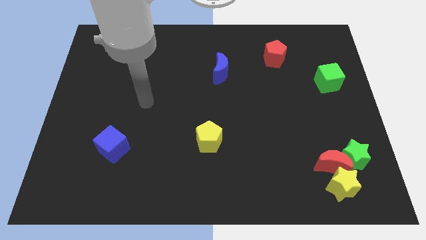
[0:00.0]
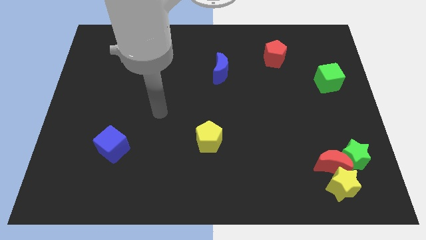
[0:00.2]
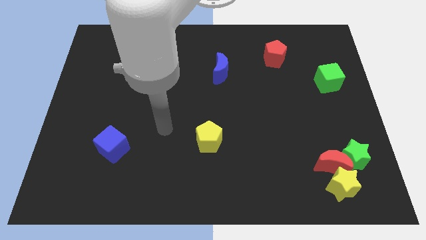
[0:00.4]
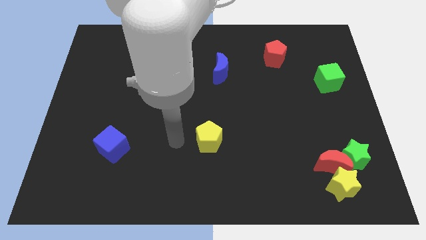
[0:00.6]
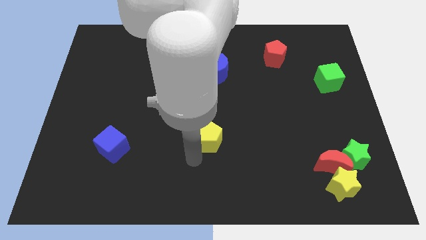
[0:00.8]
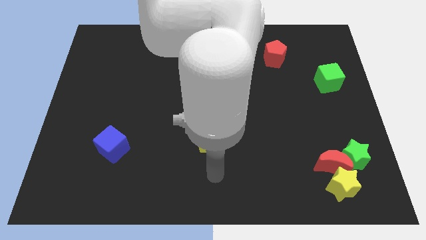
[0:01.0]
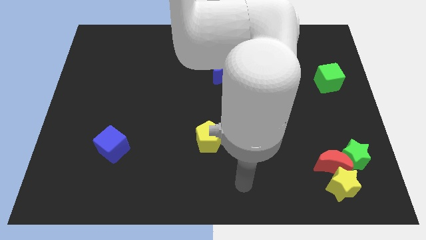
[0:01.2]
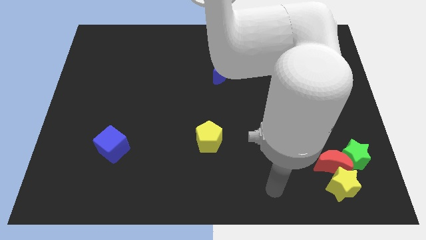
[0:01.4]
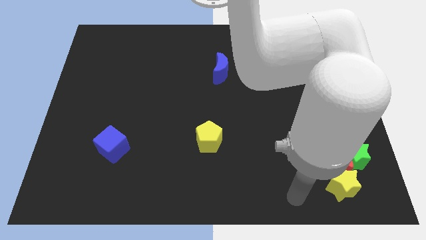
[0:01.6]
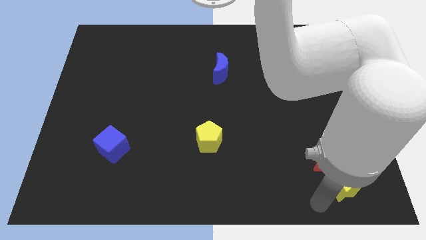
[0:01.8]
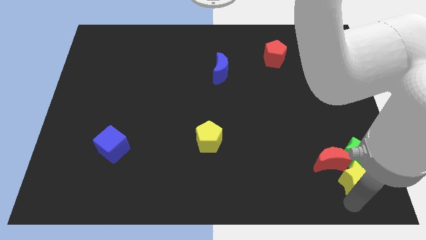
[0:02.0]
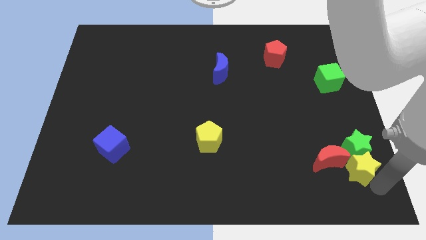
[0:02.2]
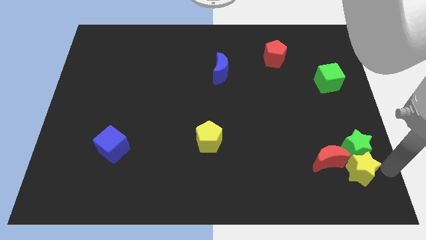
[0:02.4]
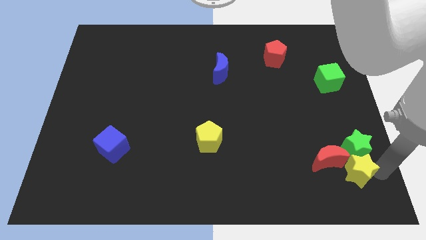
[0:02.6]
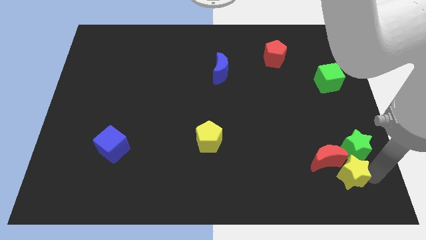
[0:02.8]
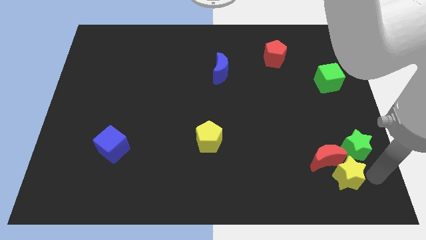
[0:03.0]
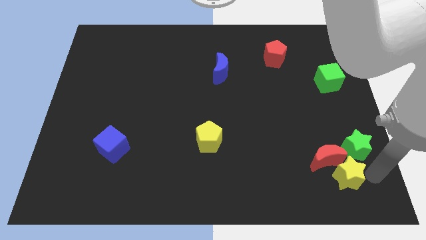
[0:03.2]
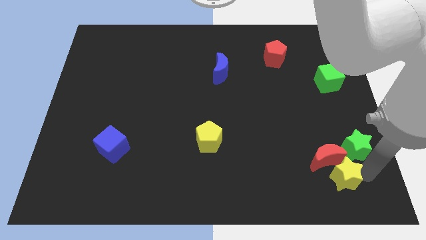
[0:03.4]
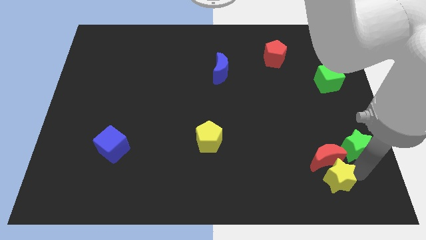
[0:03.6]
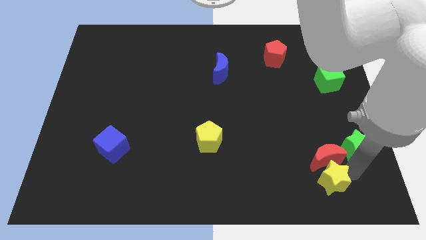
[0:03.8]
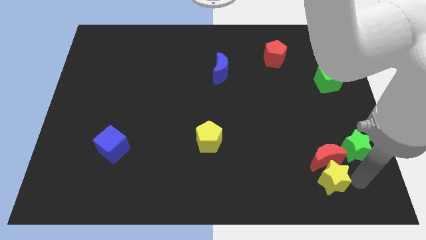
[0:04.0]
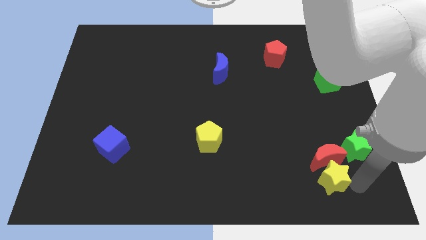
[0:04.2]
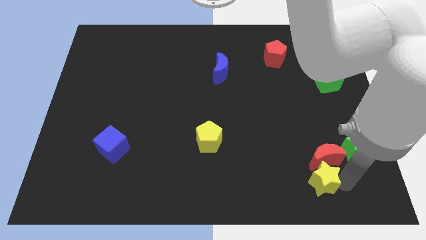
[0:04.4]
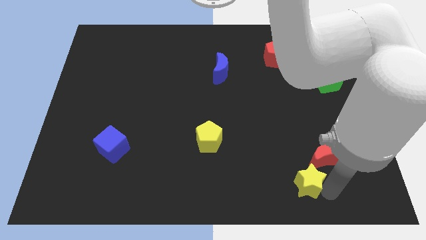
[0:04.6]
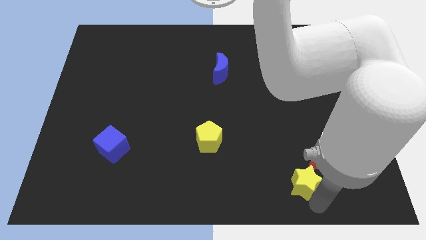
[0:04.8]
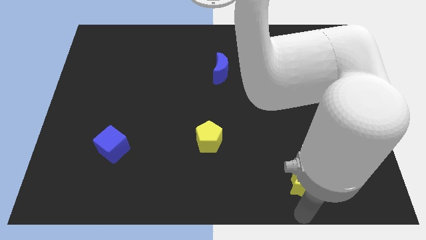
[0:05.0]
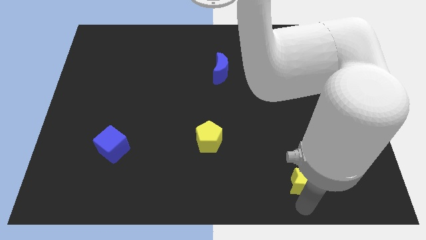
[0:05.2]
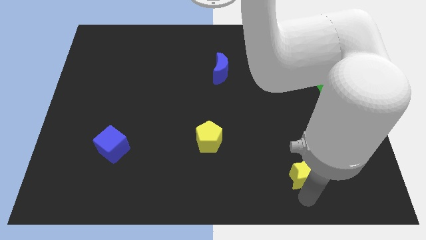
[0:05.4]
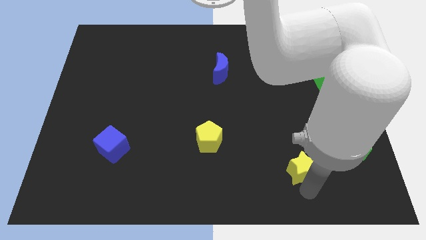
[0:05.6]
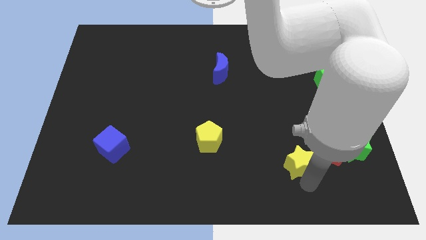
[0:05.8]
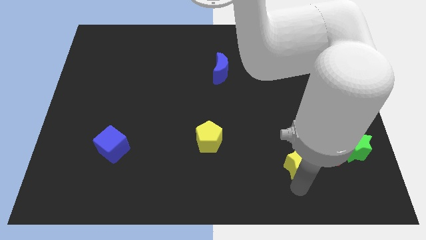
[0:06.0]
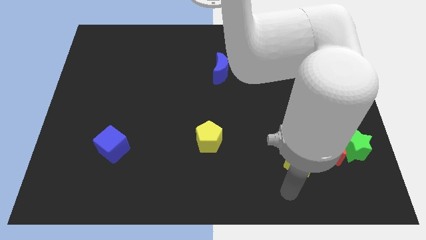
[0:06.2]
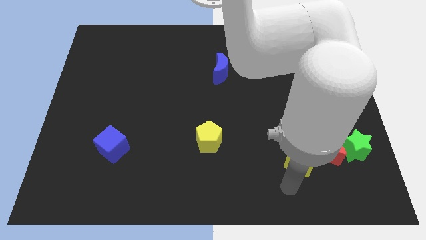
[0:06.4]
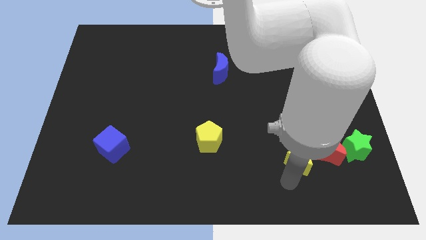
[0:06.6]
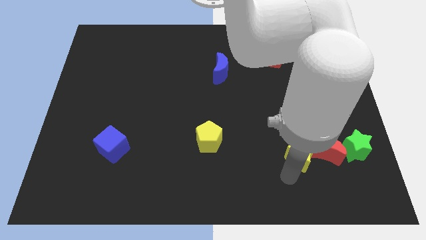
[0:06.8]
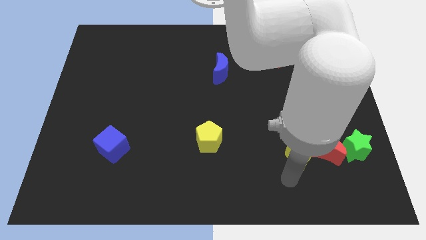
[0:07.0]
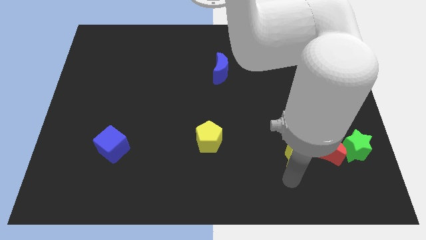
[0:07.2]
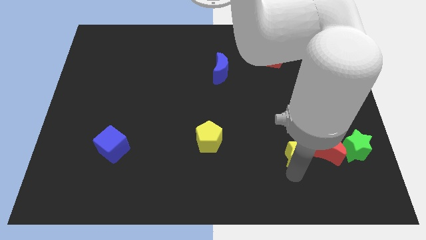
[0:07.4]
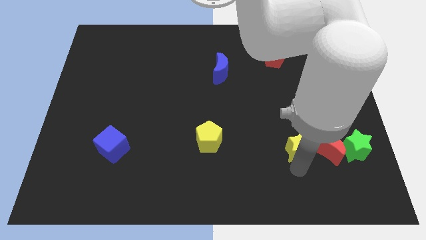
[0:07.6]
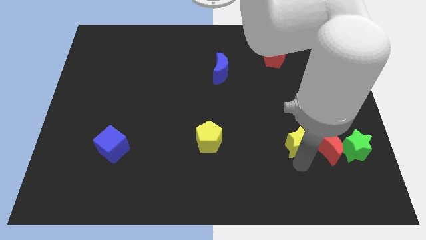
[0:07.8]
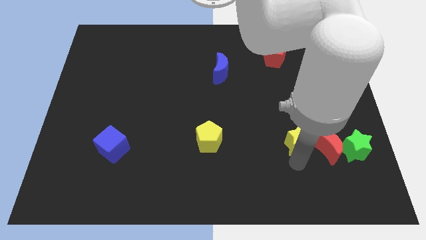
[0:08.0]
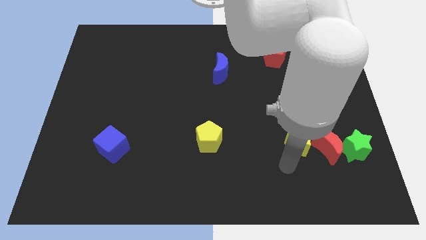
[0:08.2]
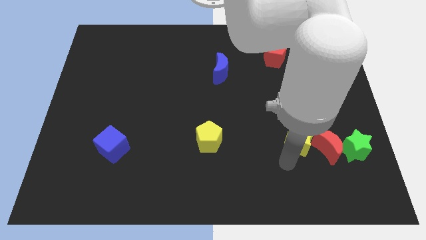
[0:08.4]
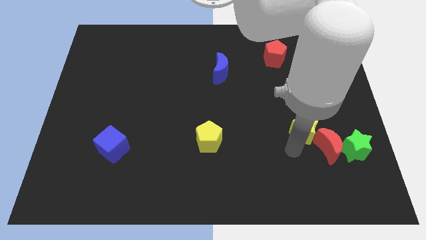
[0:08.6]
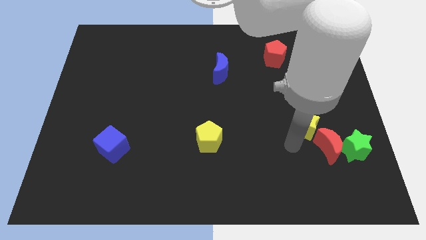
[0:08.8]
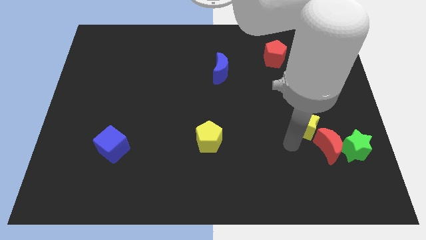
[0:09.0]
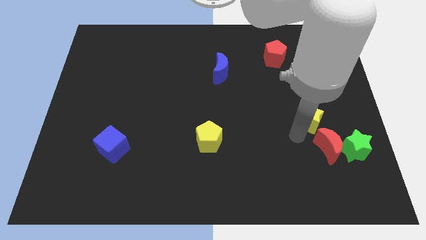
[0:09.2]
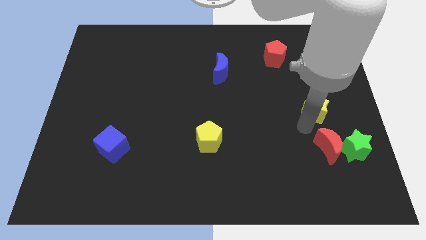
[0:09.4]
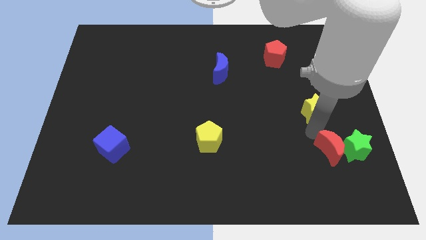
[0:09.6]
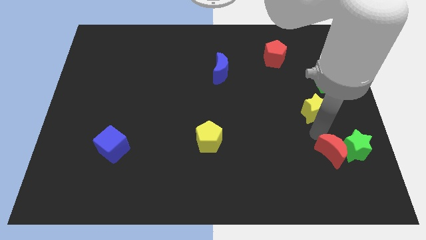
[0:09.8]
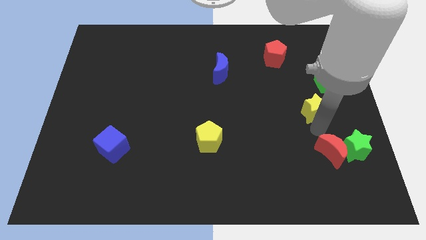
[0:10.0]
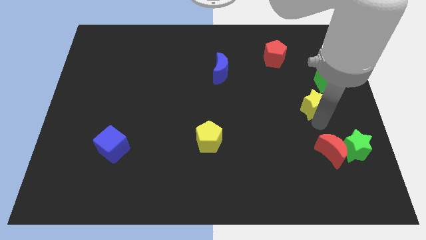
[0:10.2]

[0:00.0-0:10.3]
move the yellow star up

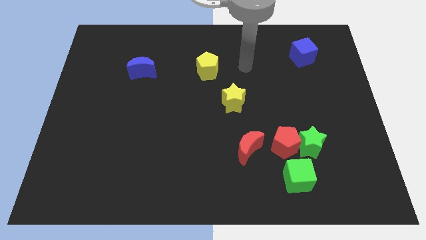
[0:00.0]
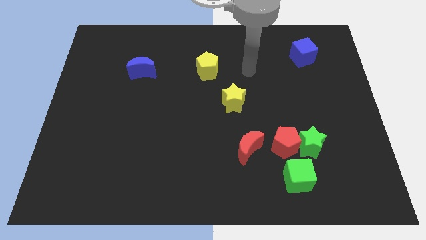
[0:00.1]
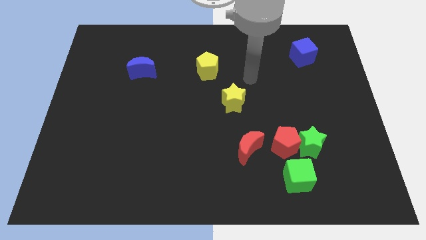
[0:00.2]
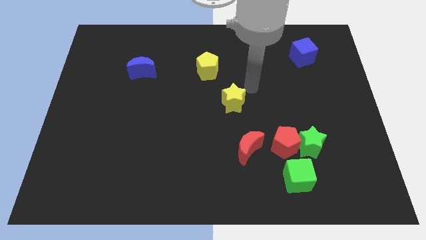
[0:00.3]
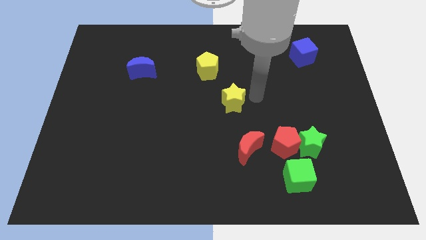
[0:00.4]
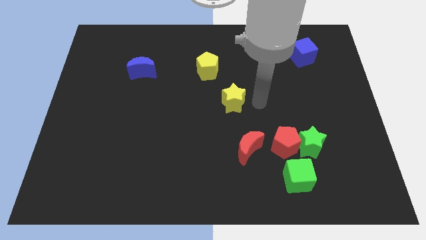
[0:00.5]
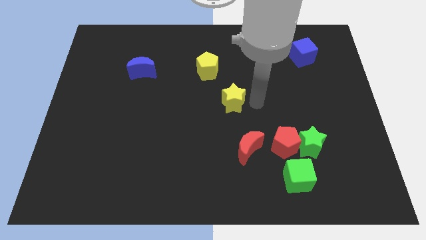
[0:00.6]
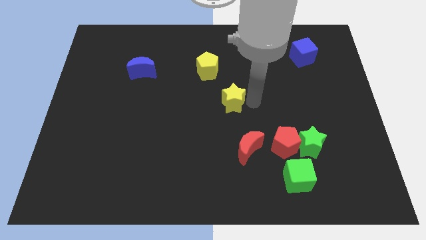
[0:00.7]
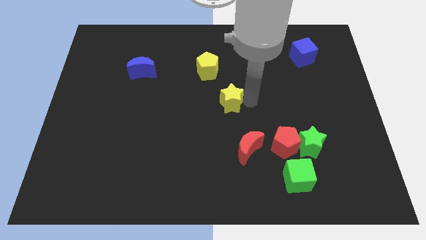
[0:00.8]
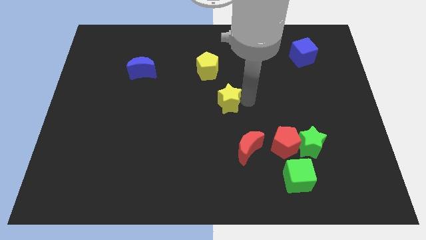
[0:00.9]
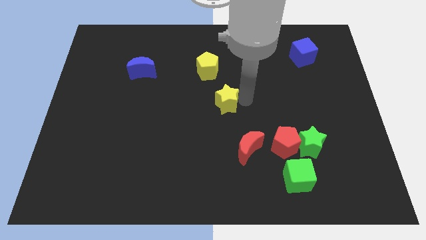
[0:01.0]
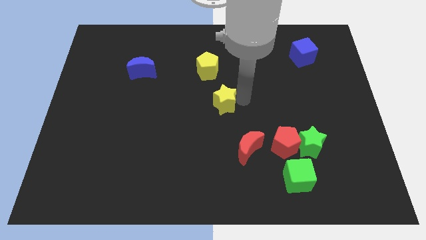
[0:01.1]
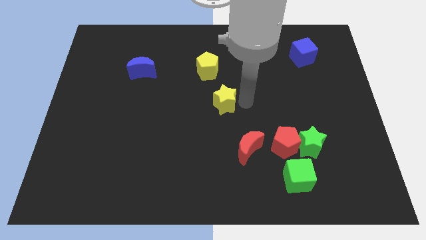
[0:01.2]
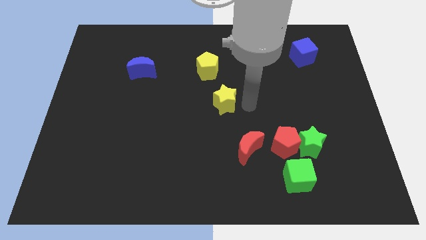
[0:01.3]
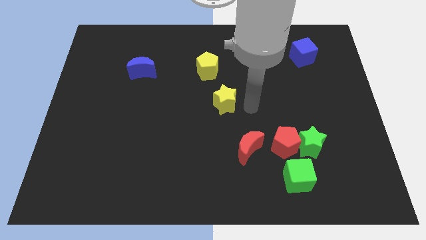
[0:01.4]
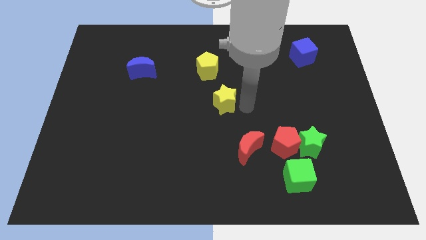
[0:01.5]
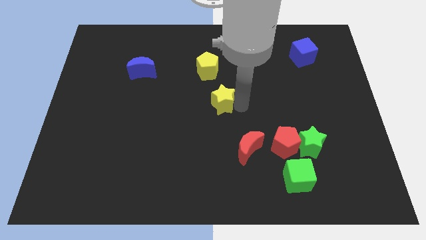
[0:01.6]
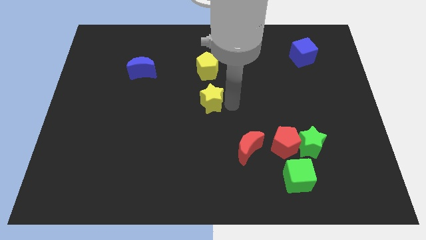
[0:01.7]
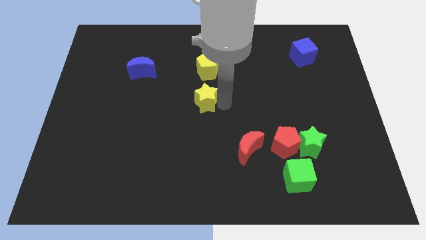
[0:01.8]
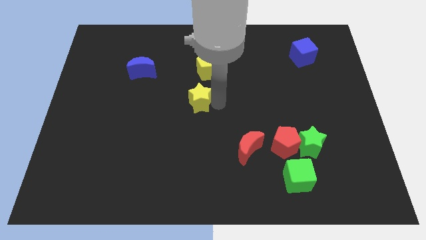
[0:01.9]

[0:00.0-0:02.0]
move the yellow star slightly left

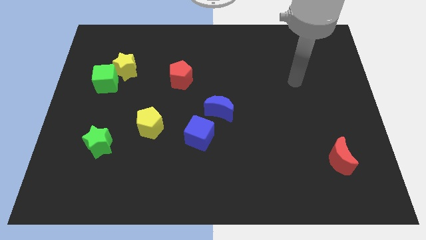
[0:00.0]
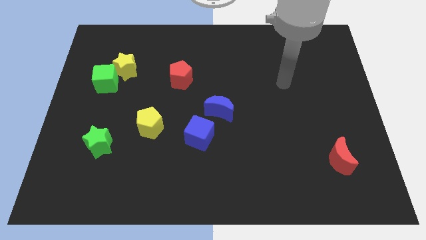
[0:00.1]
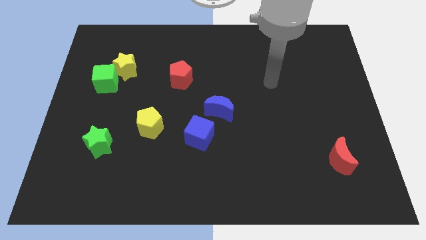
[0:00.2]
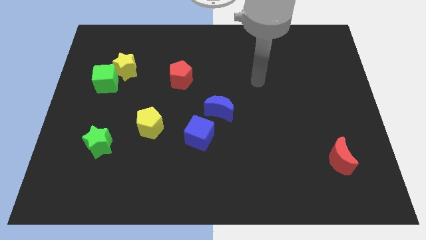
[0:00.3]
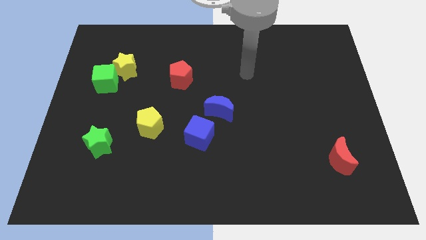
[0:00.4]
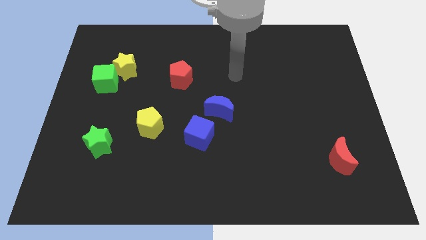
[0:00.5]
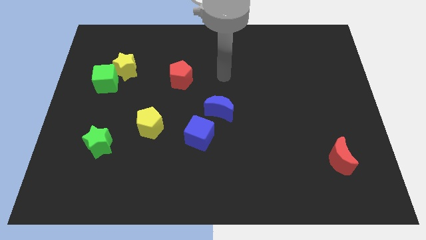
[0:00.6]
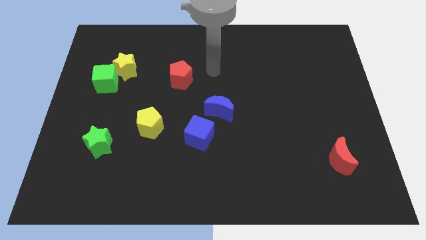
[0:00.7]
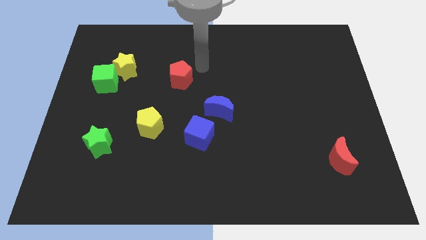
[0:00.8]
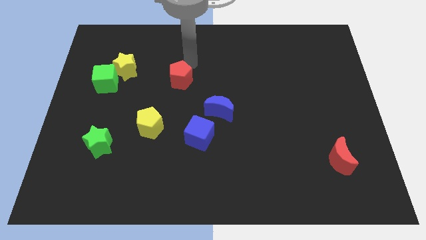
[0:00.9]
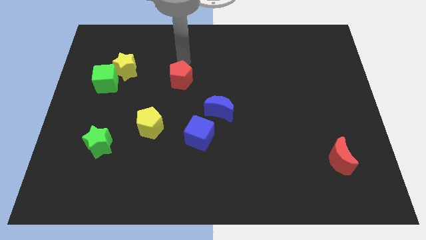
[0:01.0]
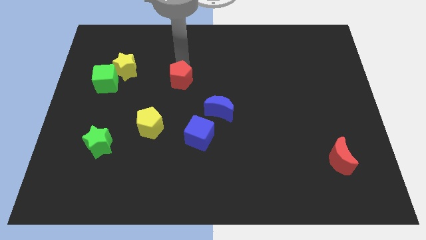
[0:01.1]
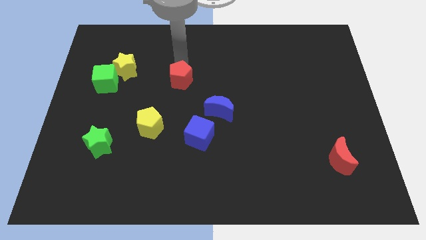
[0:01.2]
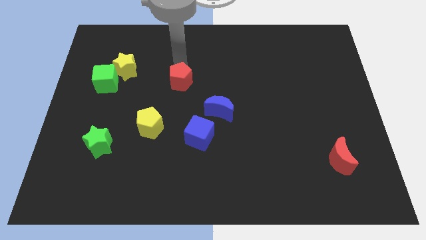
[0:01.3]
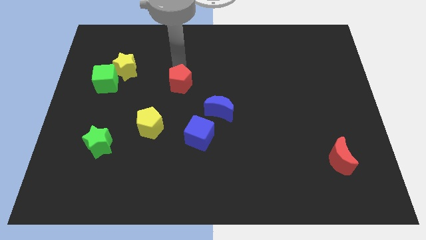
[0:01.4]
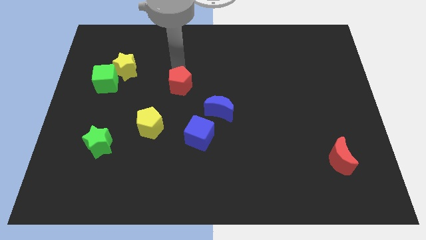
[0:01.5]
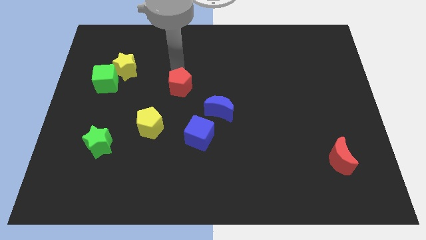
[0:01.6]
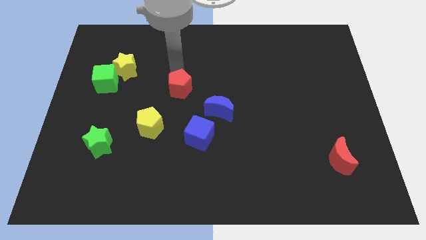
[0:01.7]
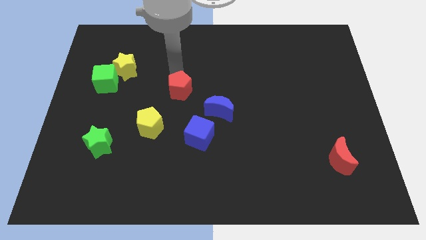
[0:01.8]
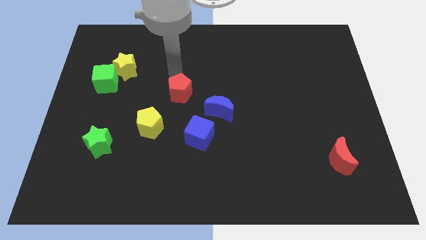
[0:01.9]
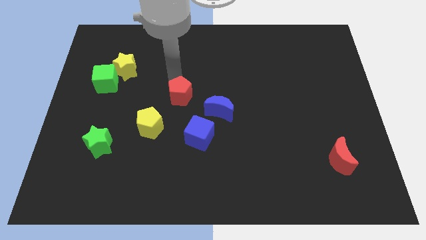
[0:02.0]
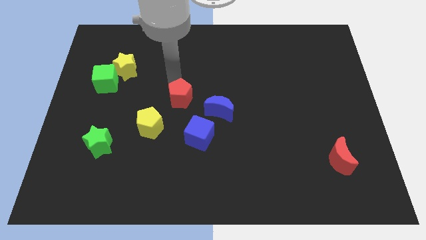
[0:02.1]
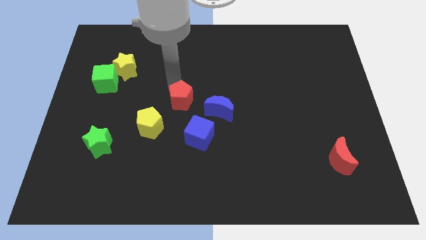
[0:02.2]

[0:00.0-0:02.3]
slide the red pentagon downwards slightly
